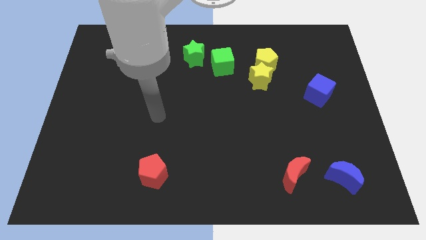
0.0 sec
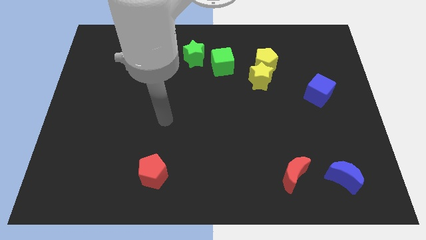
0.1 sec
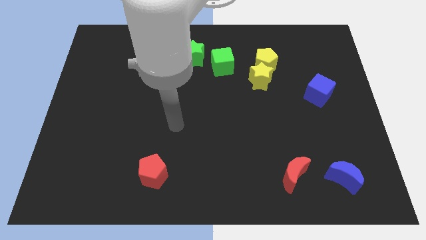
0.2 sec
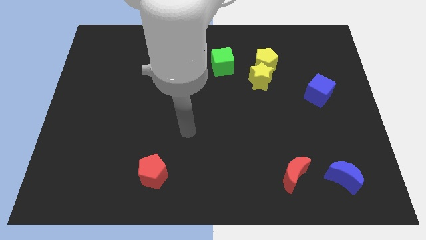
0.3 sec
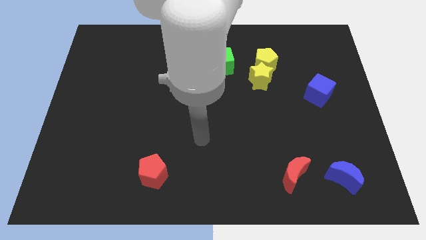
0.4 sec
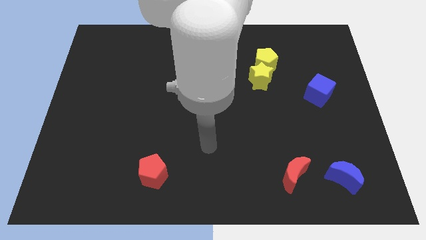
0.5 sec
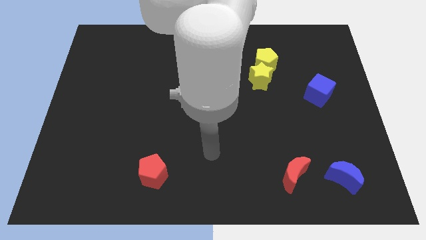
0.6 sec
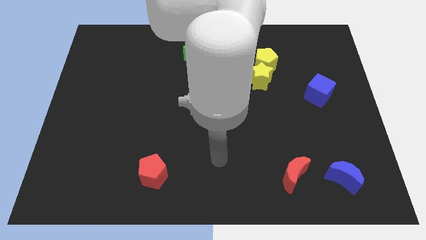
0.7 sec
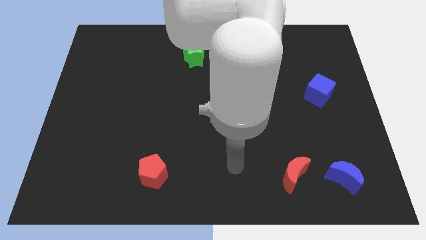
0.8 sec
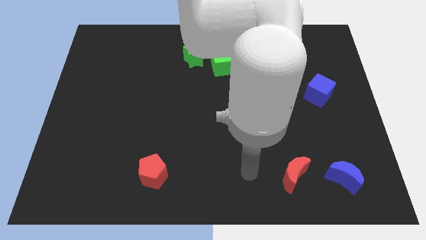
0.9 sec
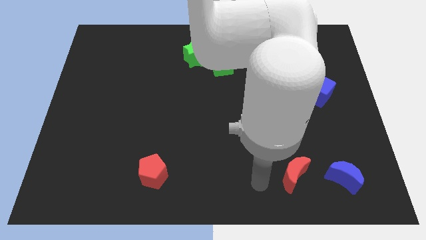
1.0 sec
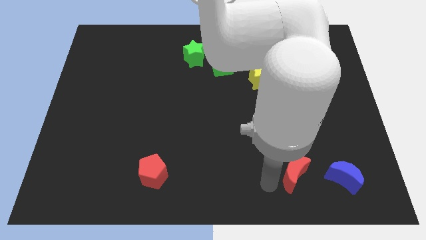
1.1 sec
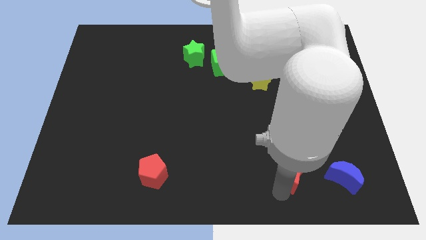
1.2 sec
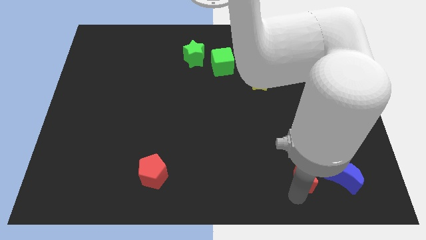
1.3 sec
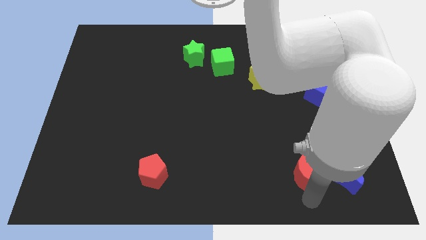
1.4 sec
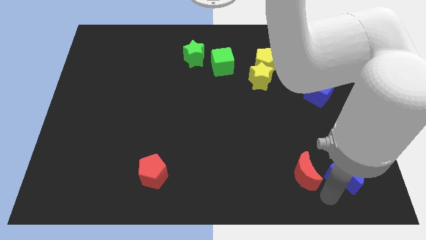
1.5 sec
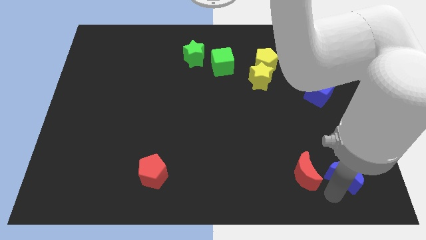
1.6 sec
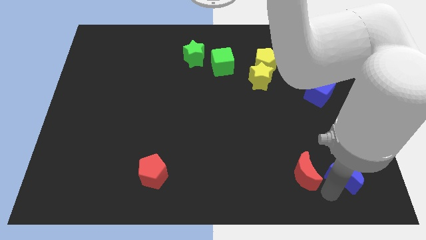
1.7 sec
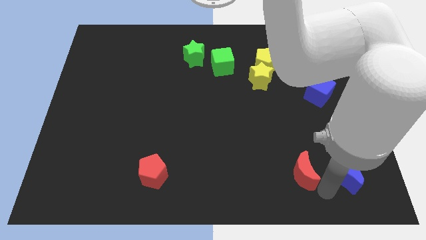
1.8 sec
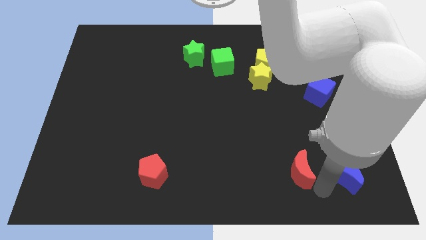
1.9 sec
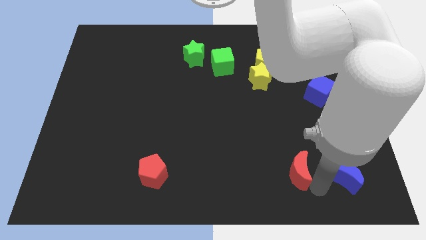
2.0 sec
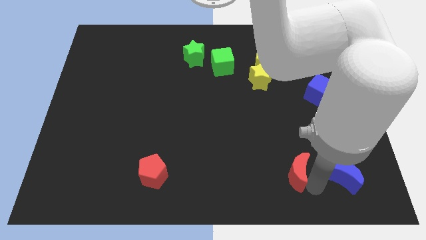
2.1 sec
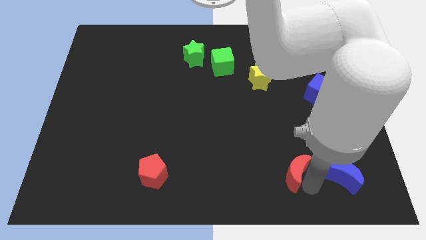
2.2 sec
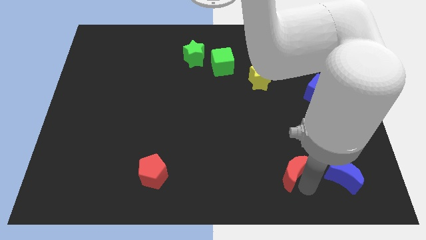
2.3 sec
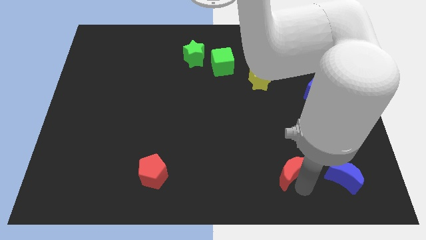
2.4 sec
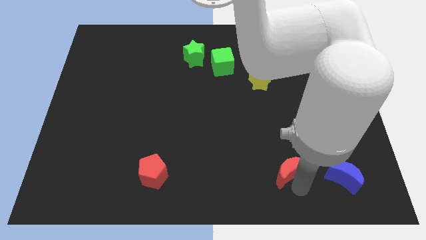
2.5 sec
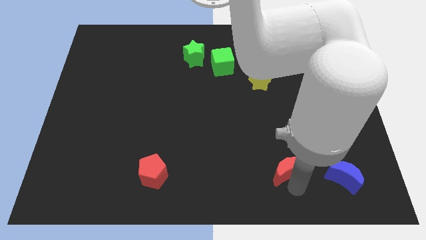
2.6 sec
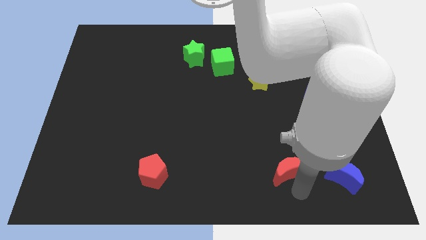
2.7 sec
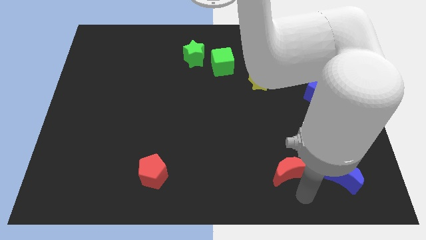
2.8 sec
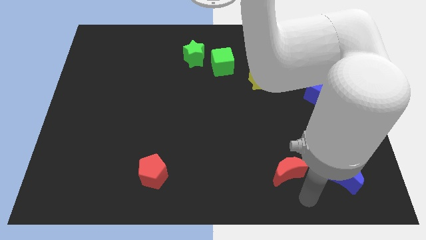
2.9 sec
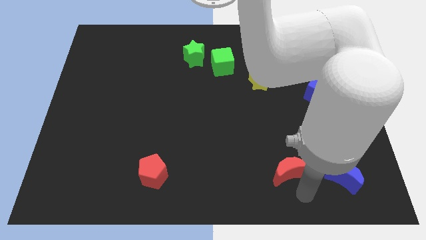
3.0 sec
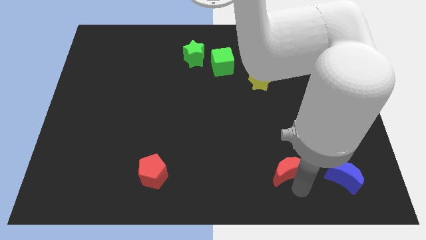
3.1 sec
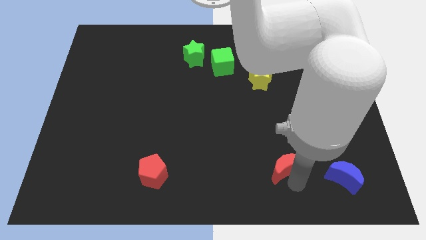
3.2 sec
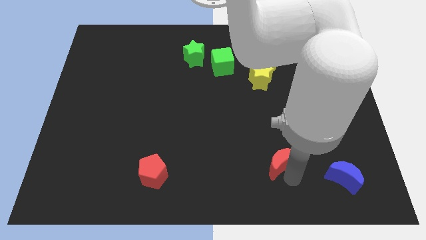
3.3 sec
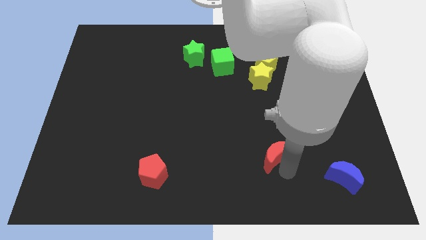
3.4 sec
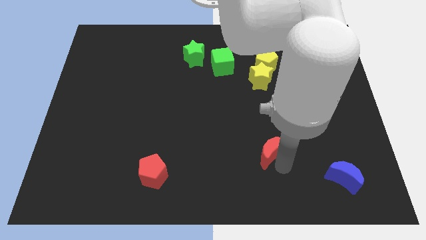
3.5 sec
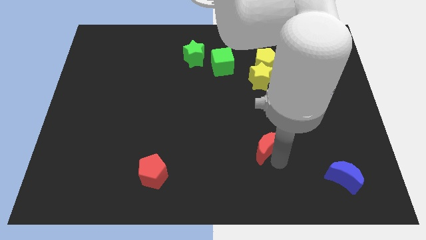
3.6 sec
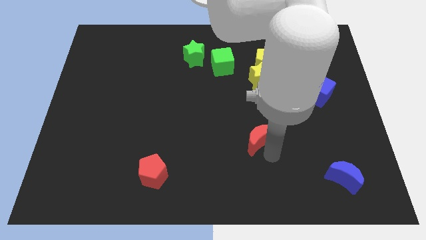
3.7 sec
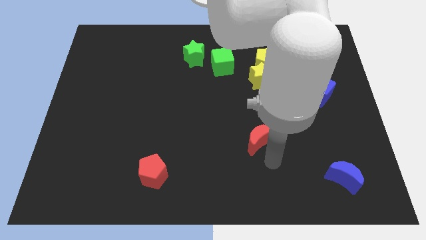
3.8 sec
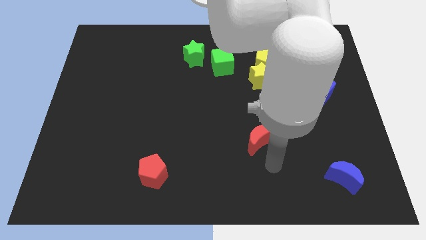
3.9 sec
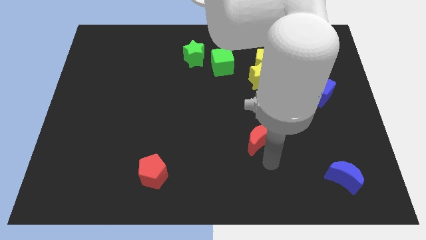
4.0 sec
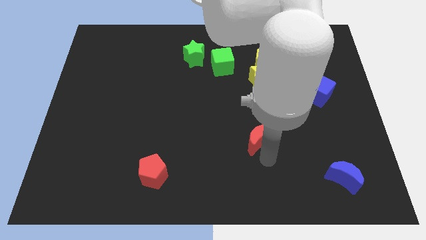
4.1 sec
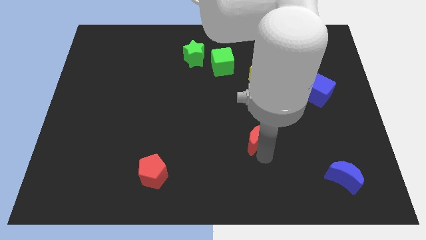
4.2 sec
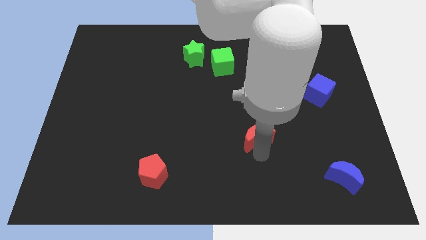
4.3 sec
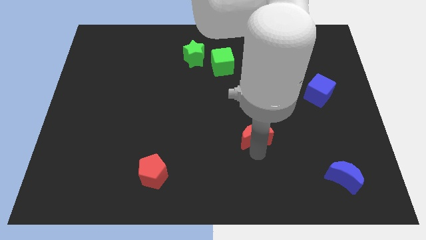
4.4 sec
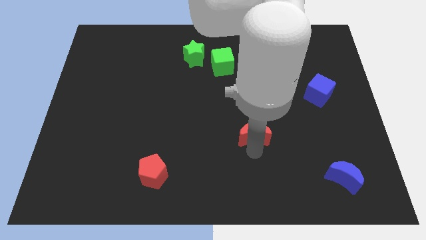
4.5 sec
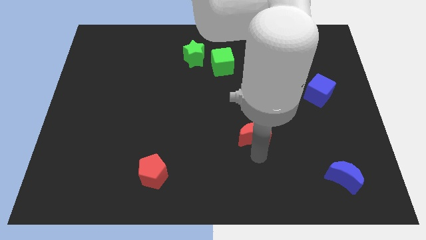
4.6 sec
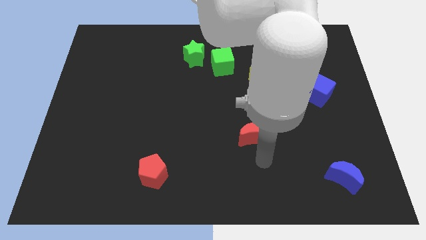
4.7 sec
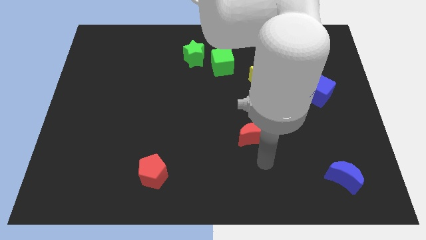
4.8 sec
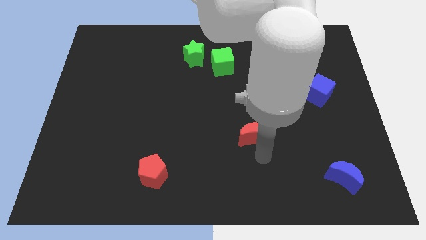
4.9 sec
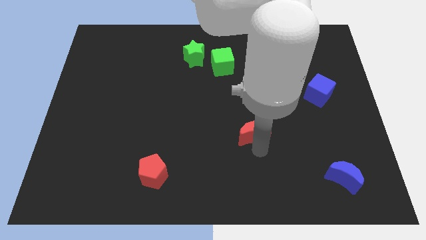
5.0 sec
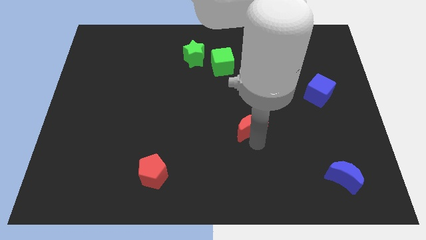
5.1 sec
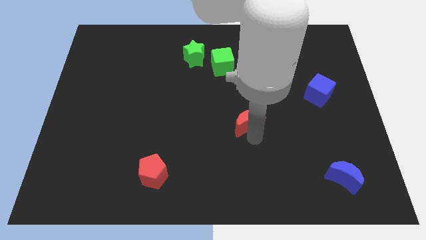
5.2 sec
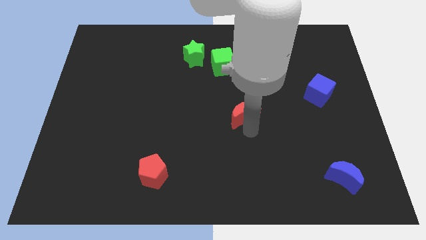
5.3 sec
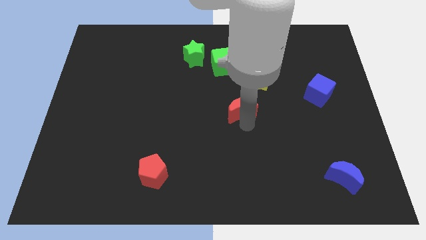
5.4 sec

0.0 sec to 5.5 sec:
push the red moon diagonally down and to the left of the yellow star

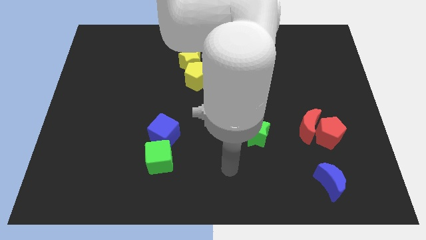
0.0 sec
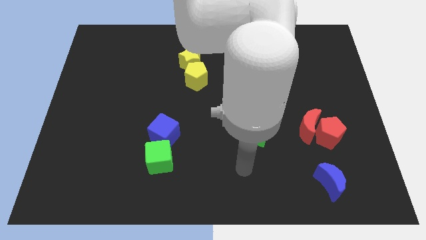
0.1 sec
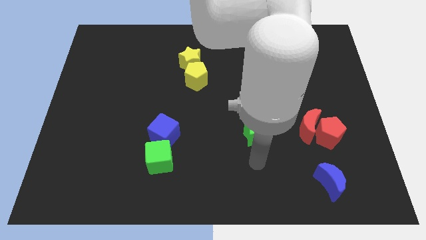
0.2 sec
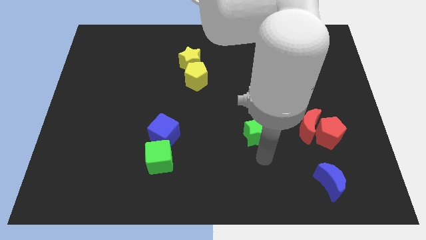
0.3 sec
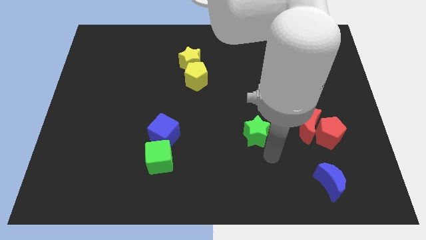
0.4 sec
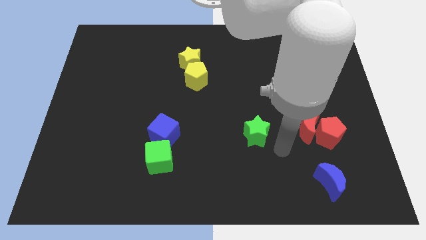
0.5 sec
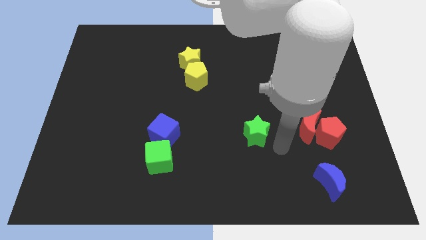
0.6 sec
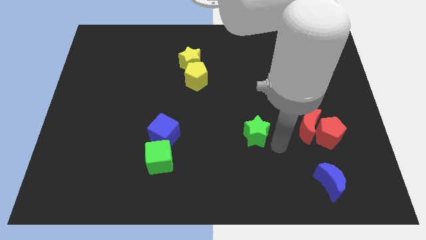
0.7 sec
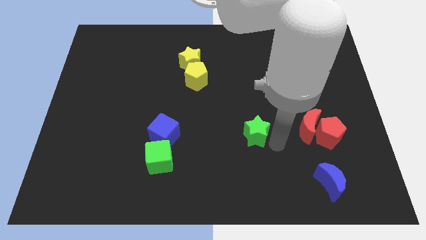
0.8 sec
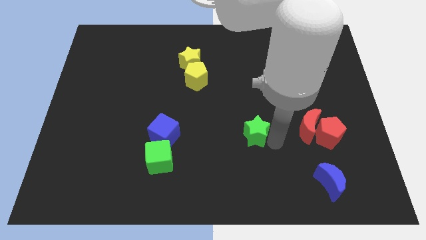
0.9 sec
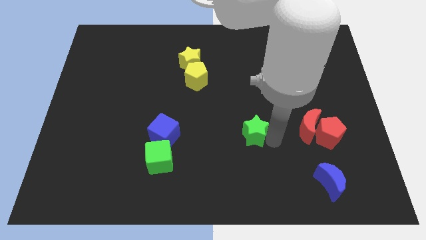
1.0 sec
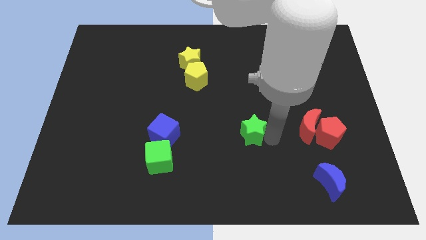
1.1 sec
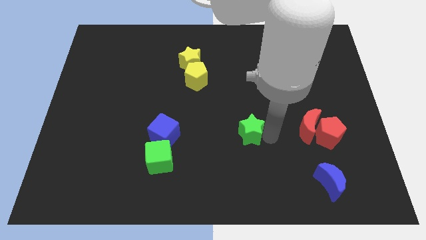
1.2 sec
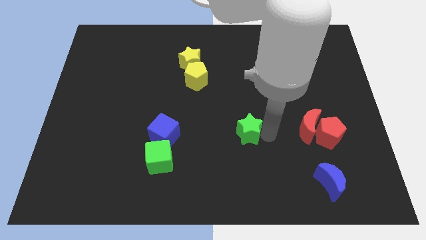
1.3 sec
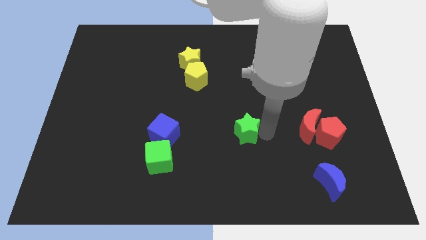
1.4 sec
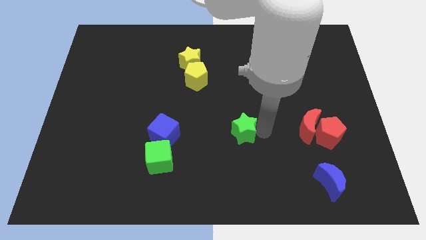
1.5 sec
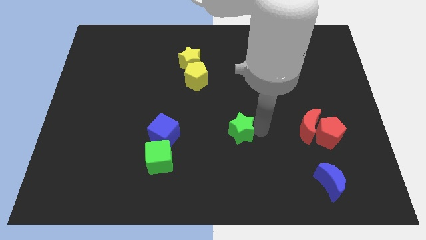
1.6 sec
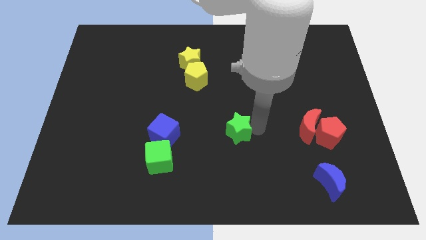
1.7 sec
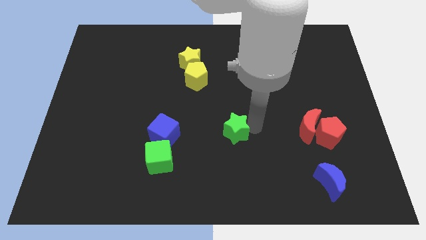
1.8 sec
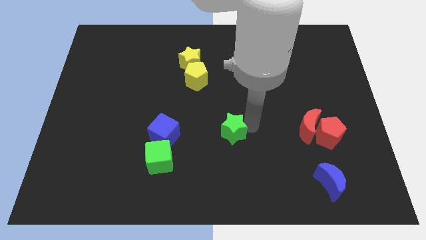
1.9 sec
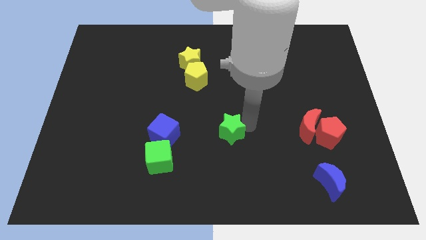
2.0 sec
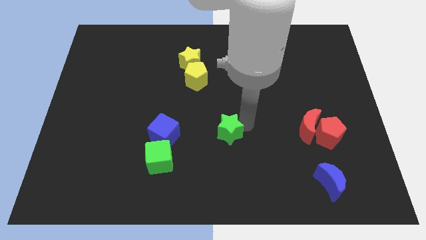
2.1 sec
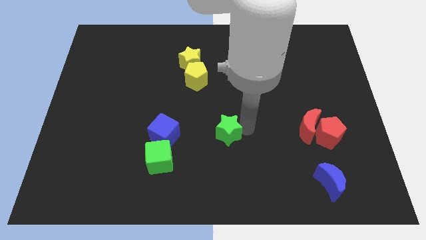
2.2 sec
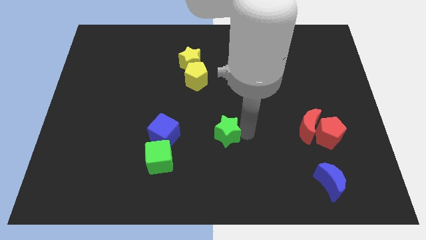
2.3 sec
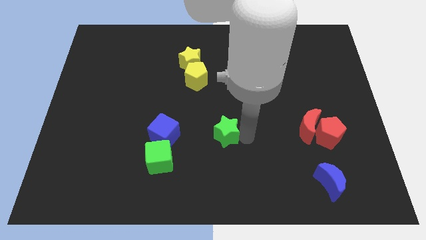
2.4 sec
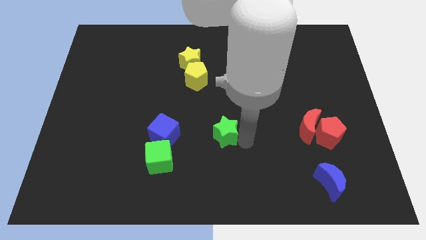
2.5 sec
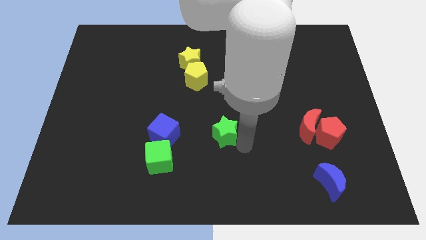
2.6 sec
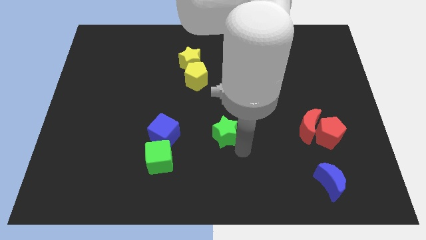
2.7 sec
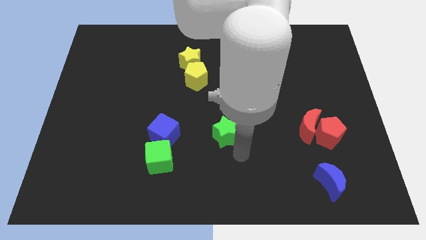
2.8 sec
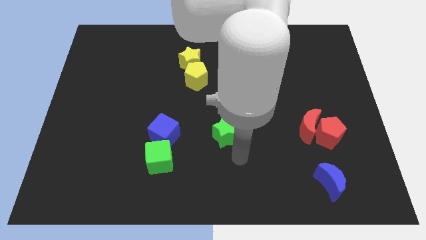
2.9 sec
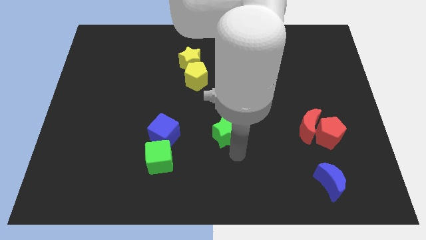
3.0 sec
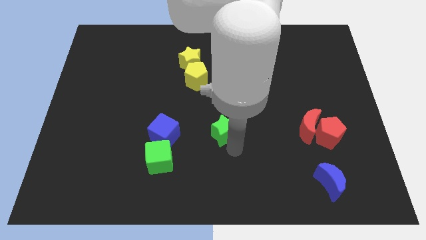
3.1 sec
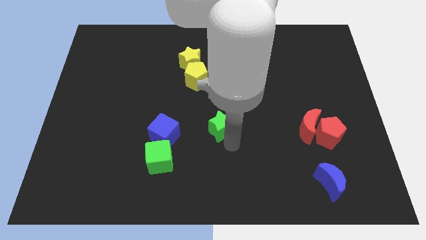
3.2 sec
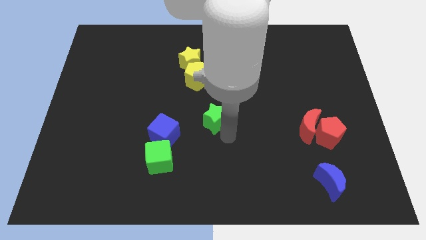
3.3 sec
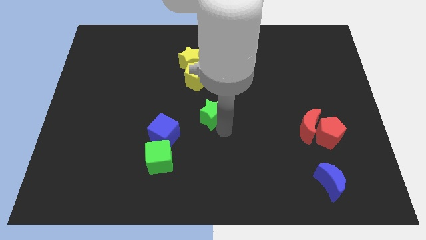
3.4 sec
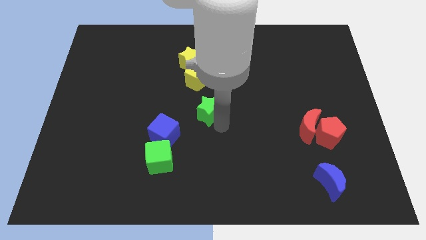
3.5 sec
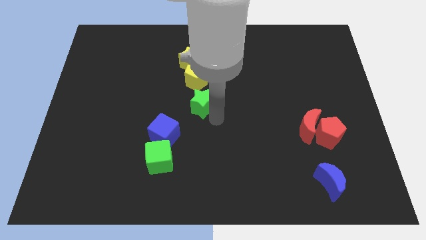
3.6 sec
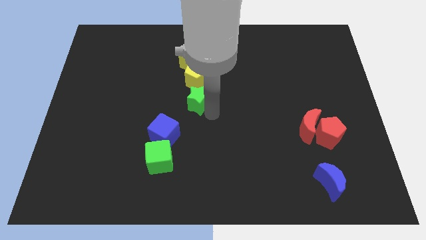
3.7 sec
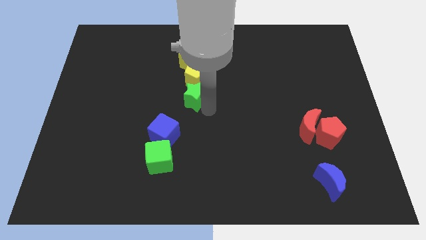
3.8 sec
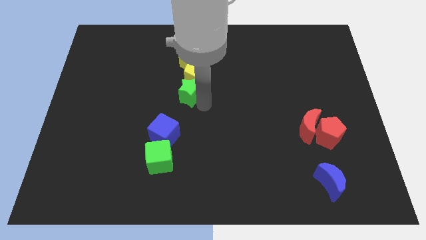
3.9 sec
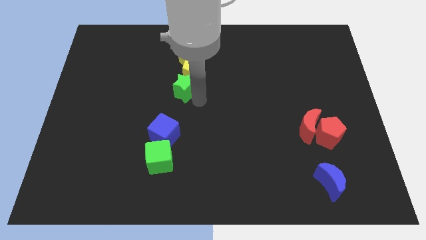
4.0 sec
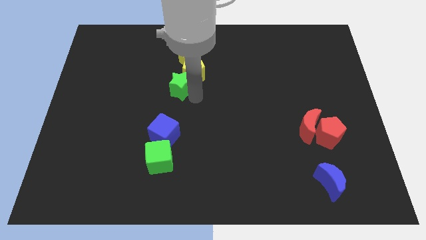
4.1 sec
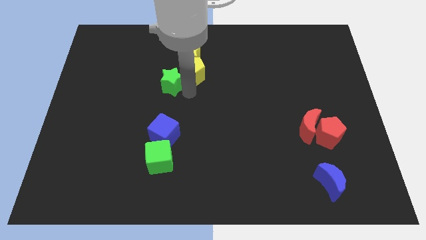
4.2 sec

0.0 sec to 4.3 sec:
put the green star left of the yellow pentagon
